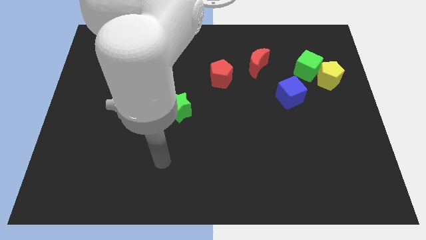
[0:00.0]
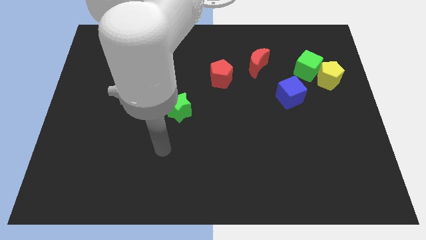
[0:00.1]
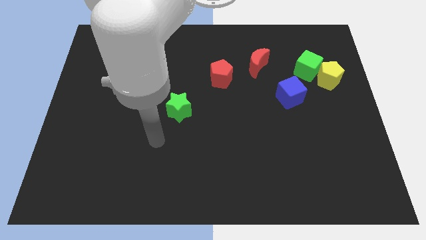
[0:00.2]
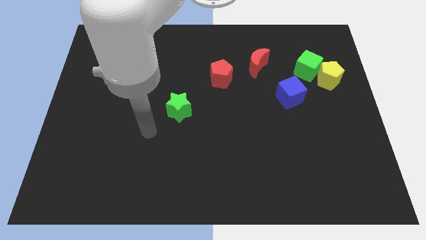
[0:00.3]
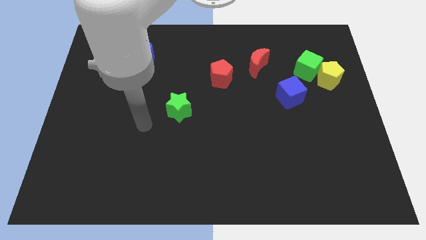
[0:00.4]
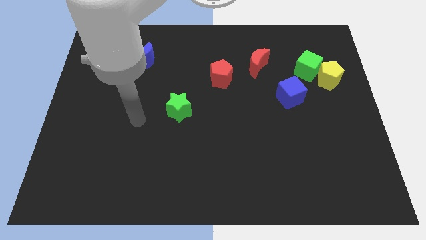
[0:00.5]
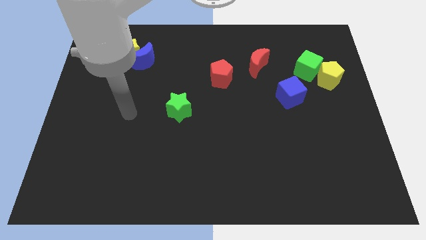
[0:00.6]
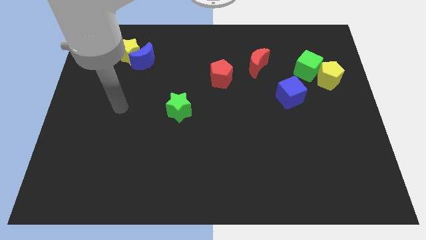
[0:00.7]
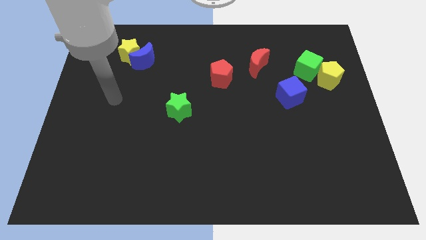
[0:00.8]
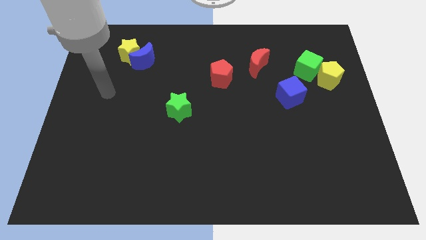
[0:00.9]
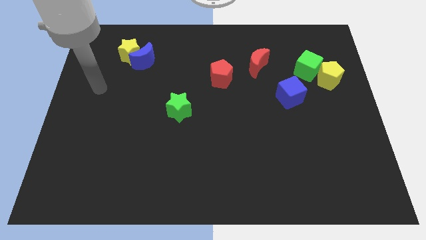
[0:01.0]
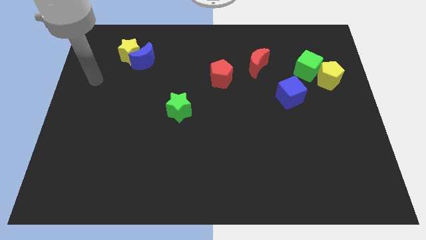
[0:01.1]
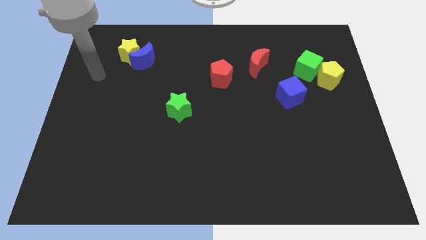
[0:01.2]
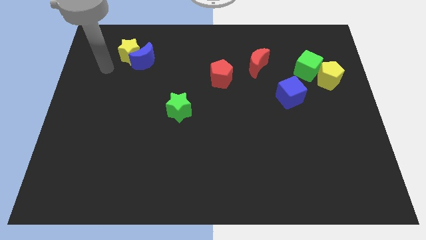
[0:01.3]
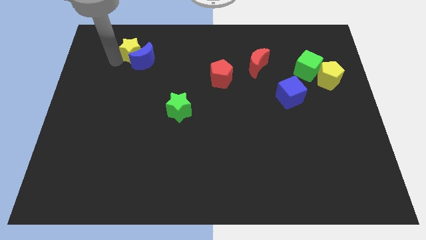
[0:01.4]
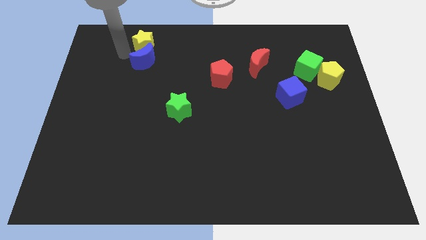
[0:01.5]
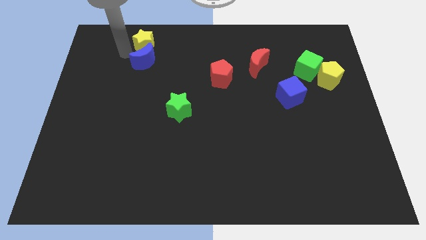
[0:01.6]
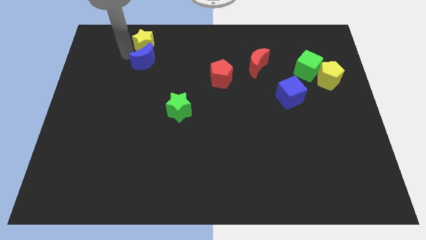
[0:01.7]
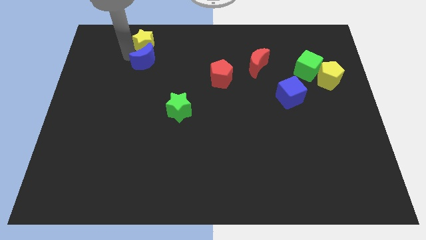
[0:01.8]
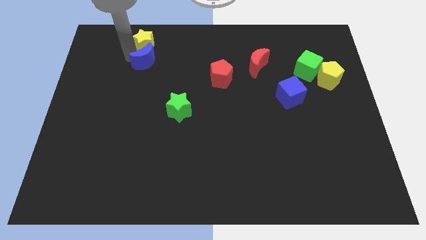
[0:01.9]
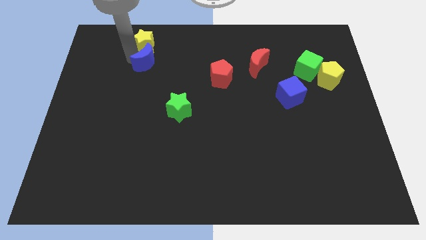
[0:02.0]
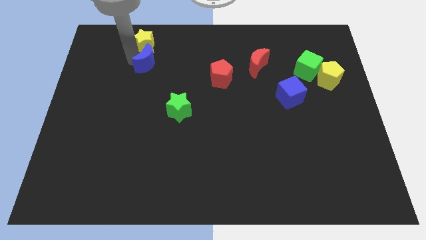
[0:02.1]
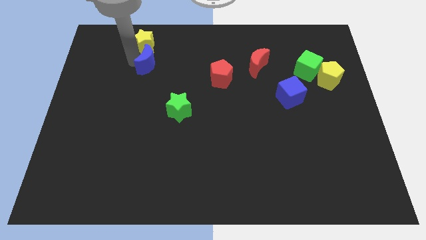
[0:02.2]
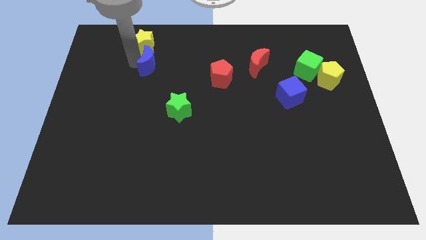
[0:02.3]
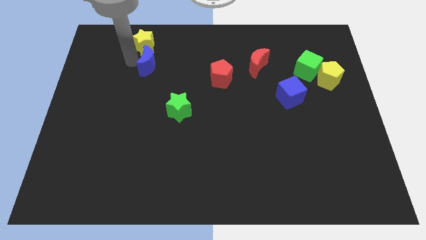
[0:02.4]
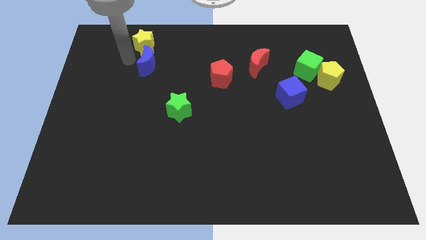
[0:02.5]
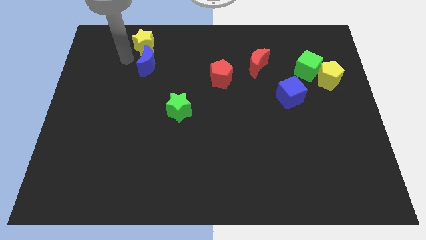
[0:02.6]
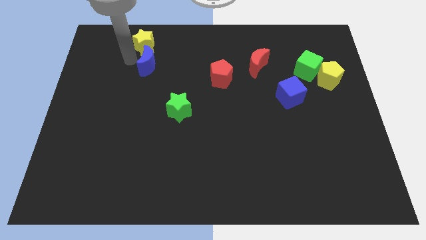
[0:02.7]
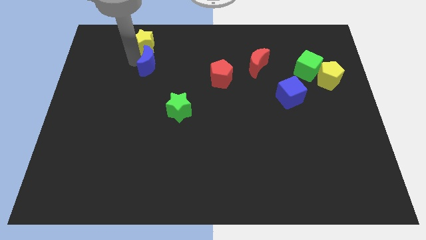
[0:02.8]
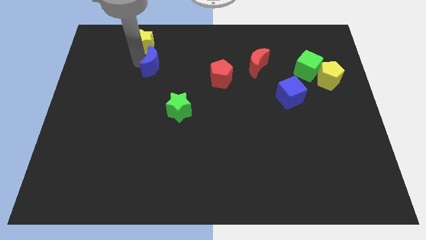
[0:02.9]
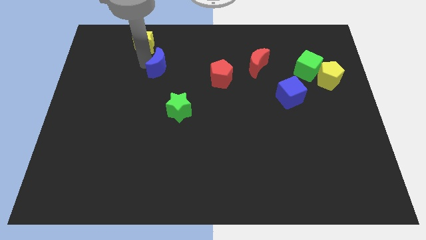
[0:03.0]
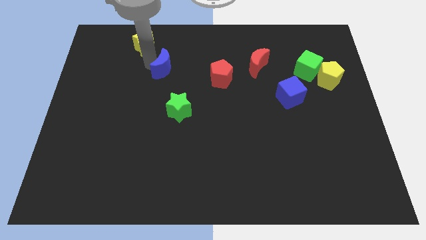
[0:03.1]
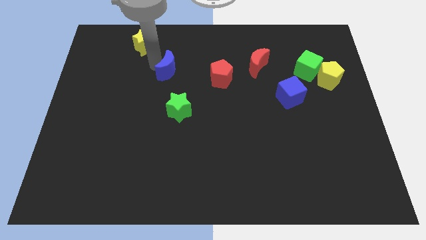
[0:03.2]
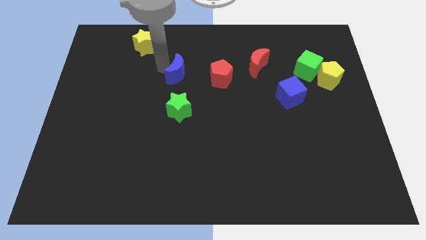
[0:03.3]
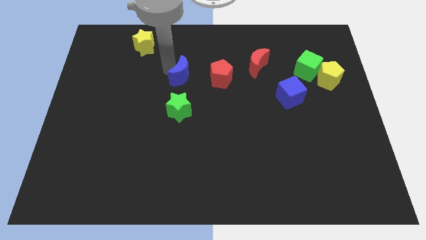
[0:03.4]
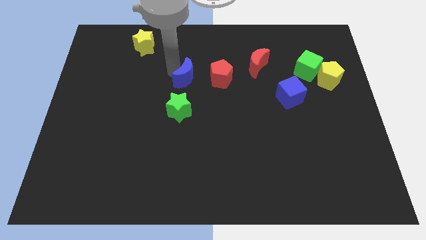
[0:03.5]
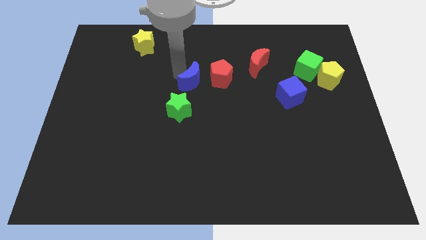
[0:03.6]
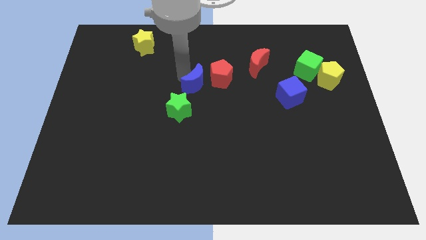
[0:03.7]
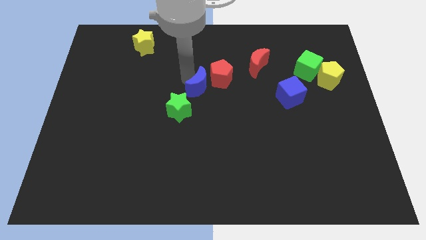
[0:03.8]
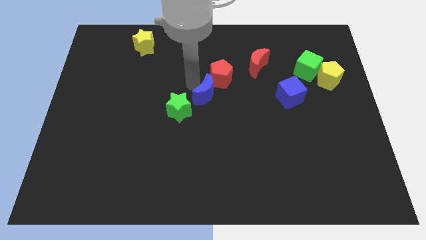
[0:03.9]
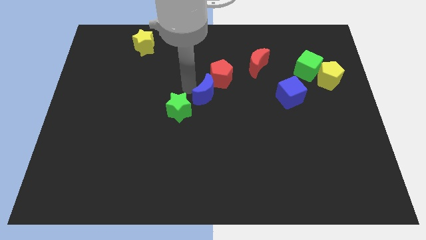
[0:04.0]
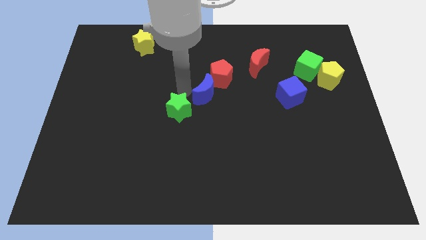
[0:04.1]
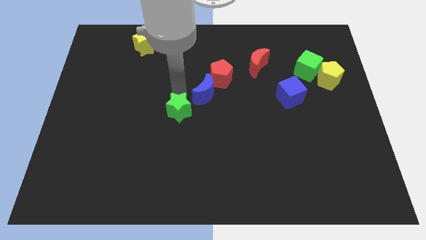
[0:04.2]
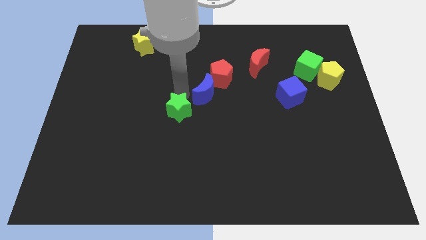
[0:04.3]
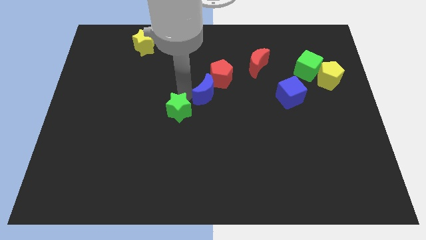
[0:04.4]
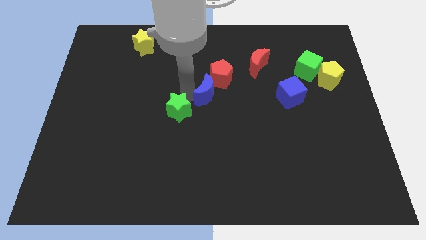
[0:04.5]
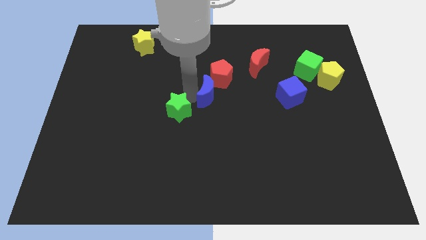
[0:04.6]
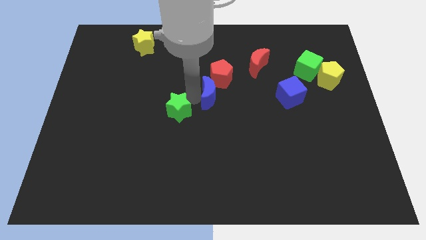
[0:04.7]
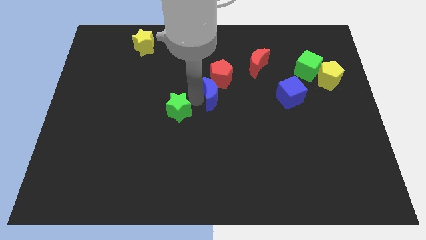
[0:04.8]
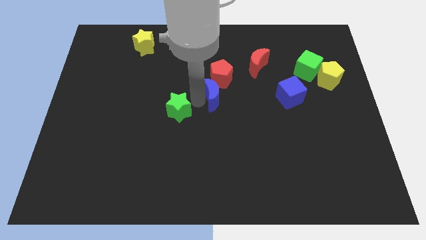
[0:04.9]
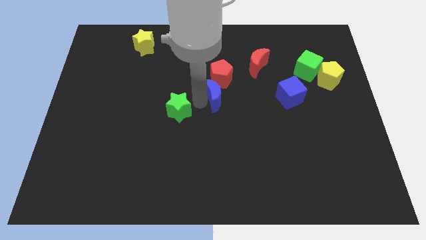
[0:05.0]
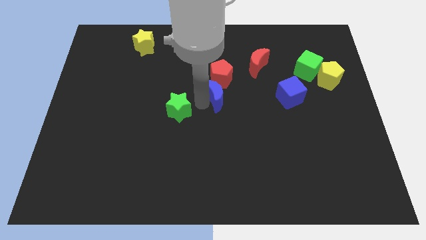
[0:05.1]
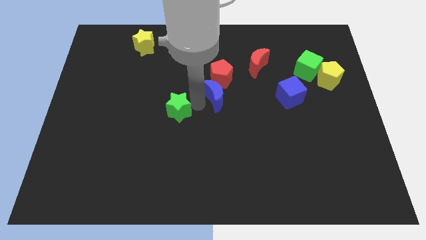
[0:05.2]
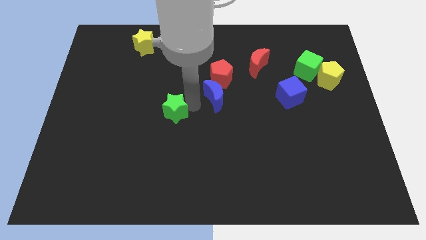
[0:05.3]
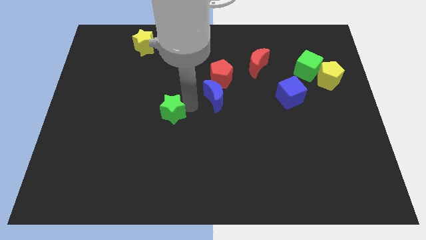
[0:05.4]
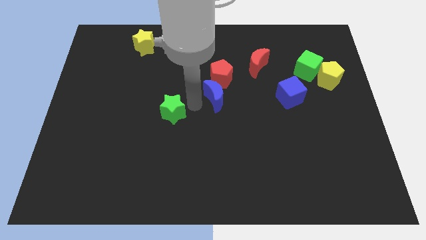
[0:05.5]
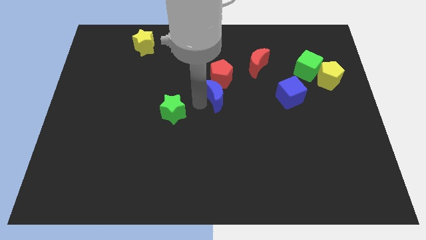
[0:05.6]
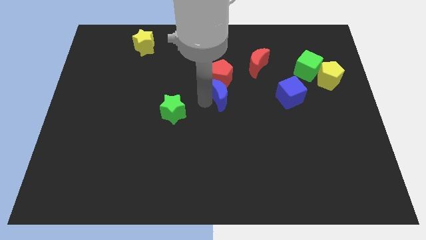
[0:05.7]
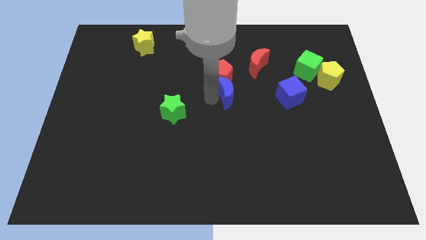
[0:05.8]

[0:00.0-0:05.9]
move the blue moon to the left side of the blue cube

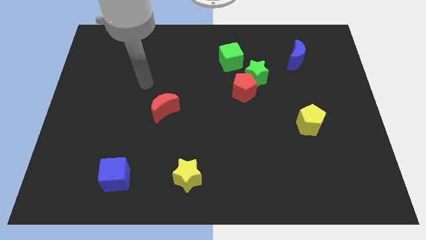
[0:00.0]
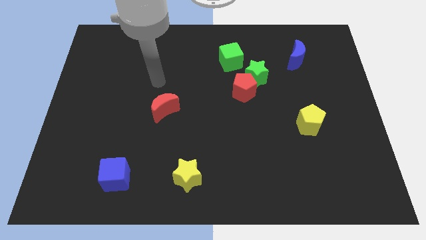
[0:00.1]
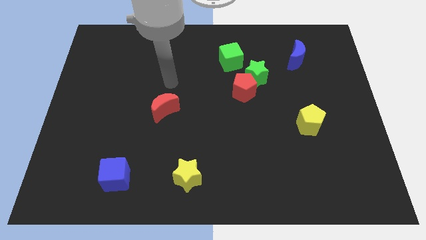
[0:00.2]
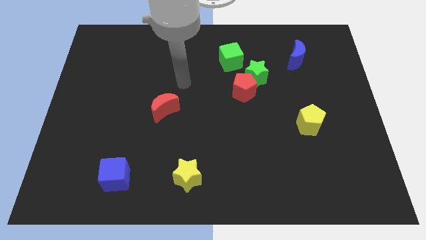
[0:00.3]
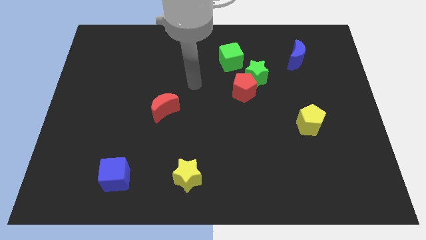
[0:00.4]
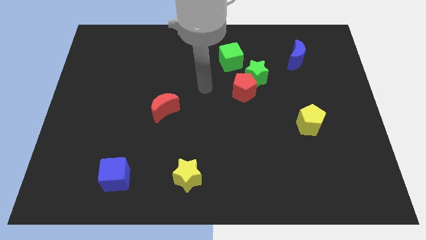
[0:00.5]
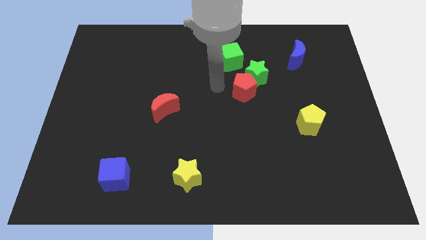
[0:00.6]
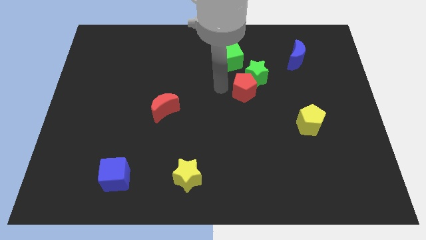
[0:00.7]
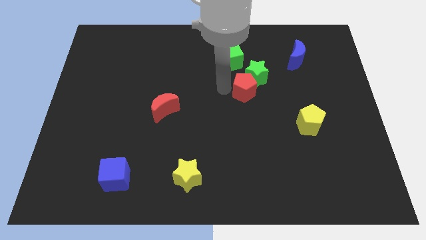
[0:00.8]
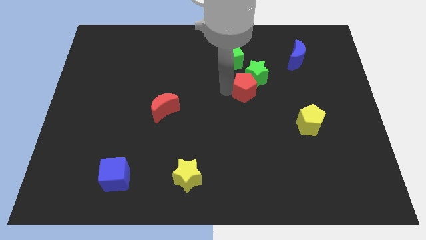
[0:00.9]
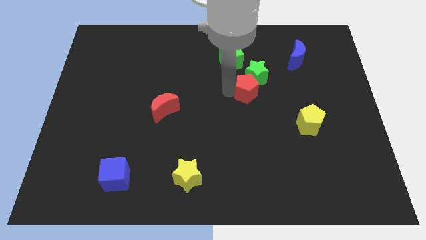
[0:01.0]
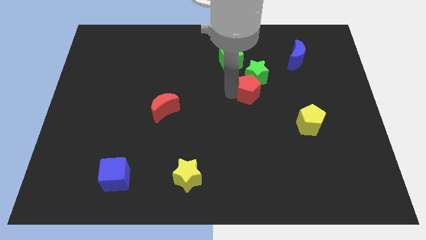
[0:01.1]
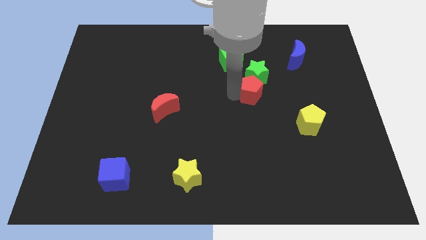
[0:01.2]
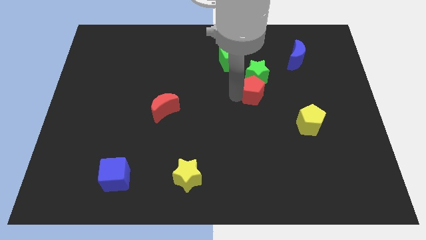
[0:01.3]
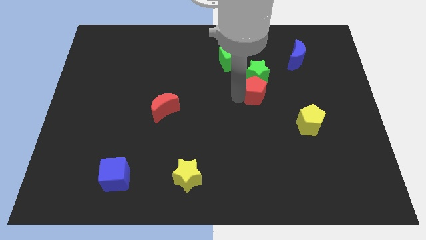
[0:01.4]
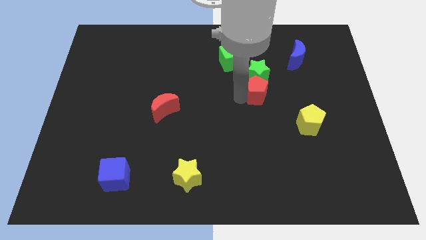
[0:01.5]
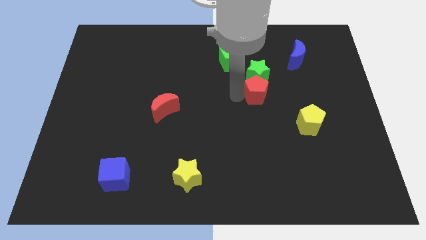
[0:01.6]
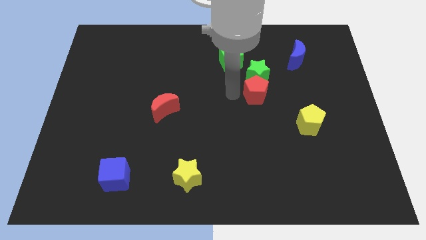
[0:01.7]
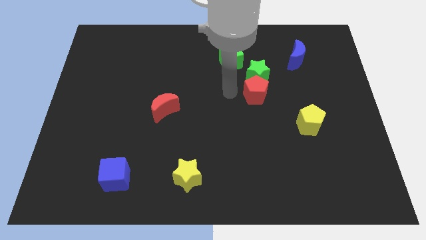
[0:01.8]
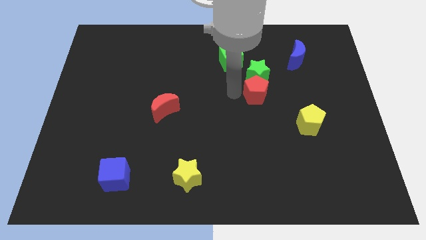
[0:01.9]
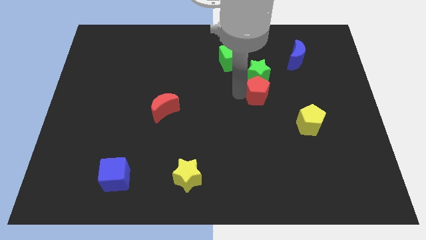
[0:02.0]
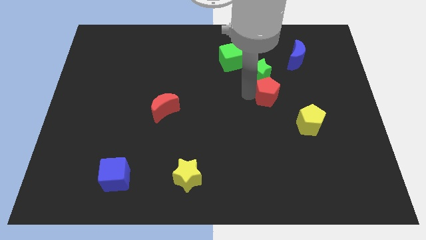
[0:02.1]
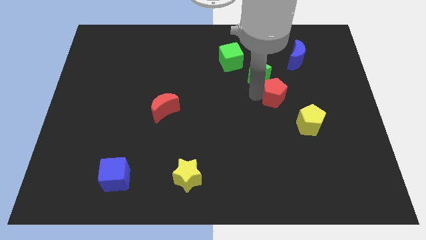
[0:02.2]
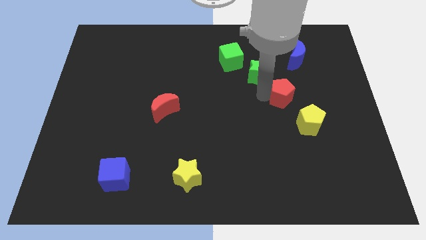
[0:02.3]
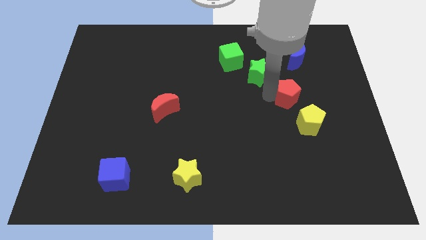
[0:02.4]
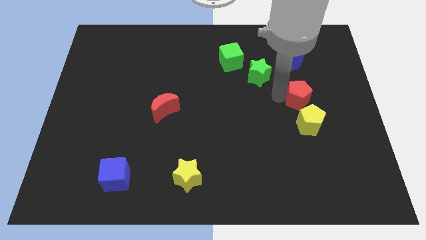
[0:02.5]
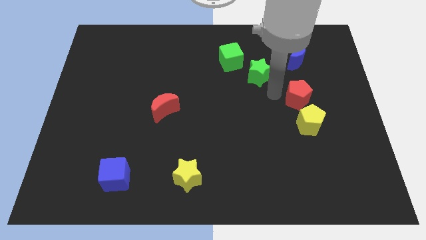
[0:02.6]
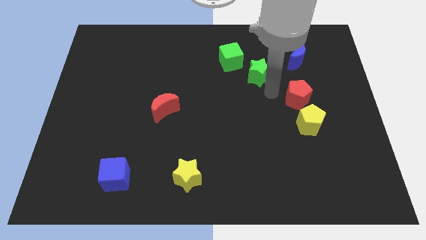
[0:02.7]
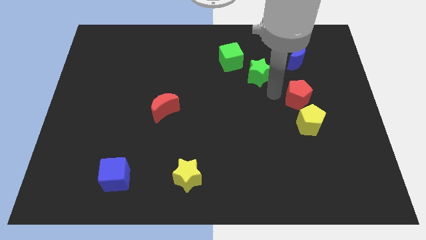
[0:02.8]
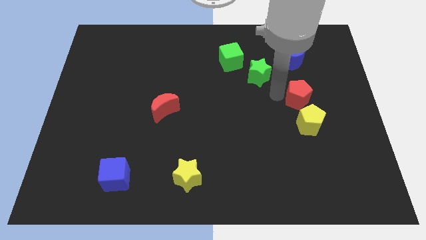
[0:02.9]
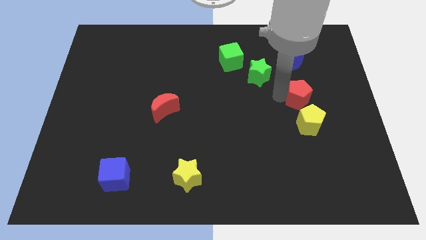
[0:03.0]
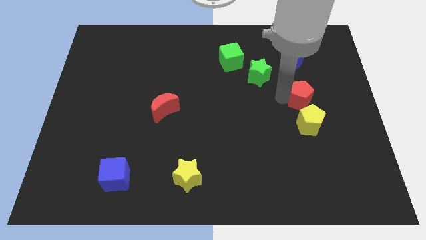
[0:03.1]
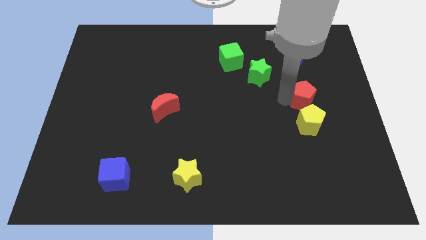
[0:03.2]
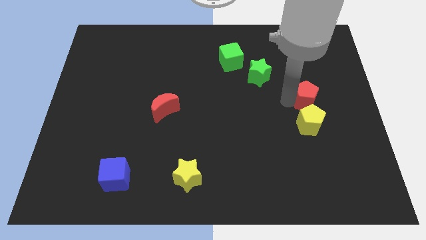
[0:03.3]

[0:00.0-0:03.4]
push the red pentagon to the top right of the yellow pentagon
